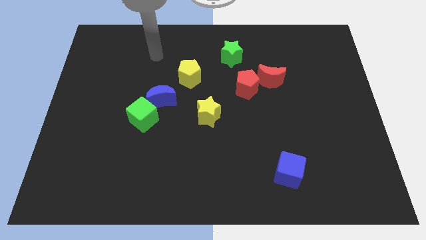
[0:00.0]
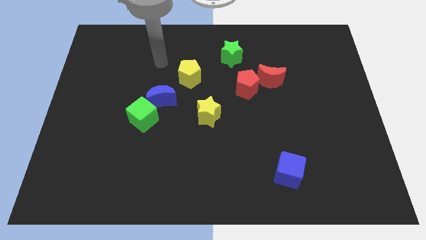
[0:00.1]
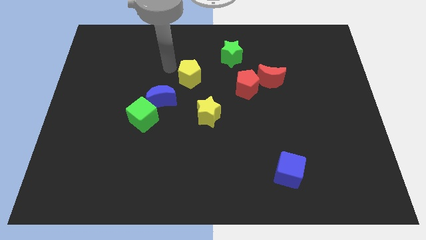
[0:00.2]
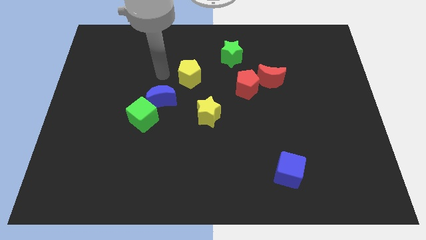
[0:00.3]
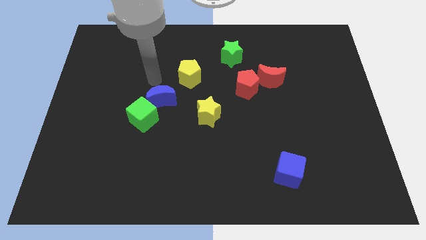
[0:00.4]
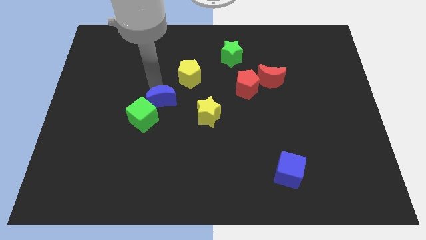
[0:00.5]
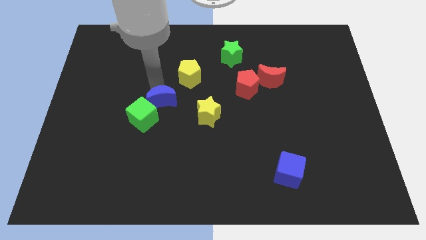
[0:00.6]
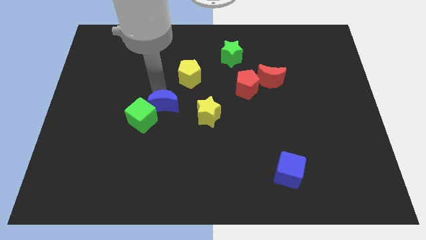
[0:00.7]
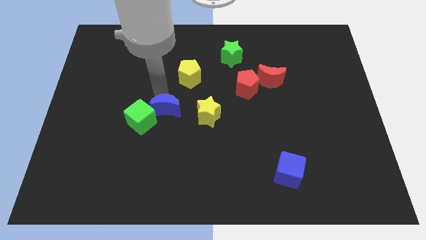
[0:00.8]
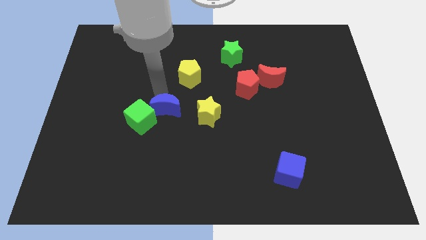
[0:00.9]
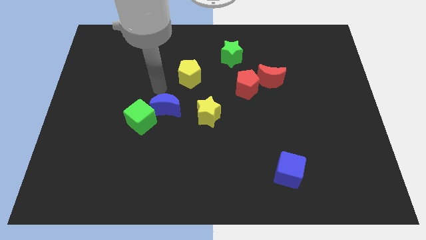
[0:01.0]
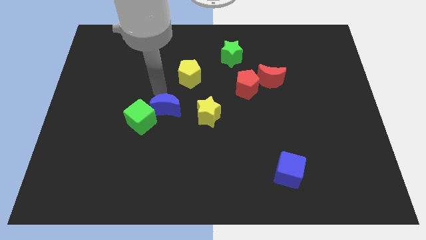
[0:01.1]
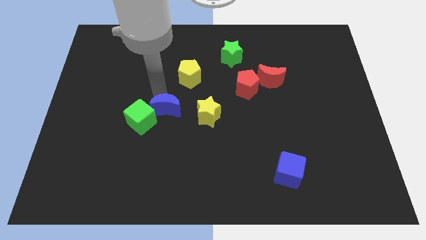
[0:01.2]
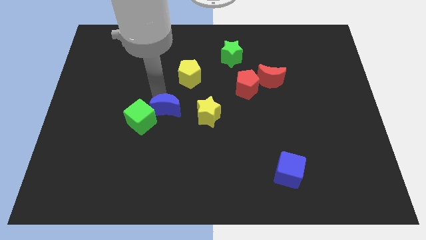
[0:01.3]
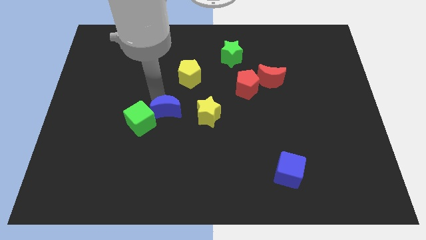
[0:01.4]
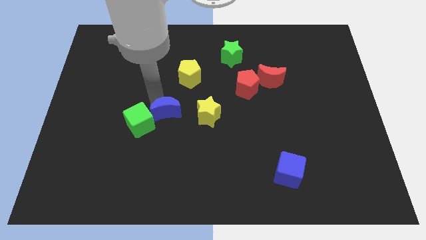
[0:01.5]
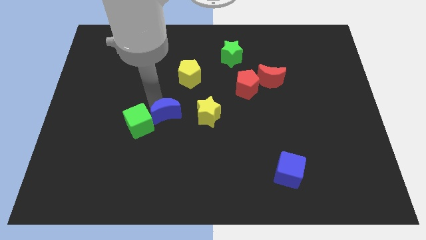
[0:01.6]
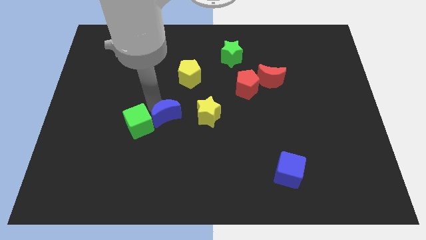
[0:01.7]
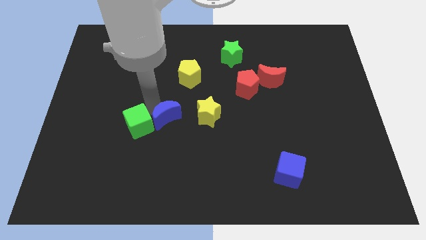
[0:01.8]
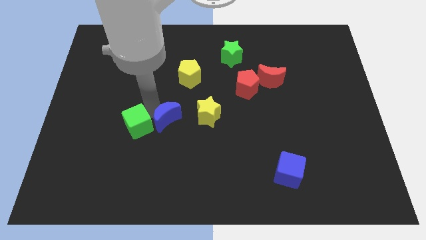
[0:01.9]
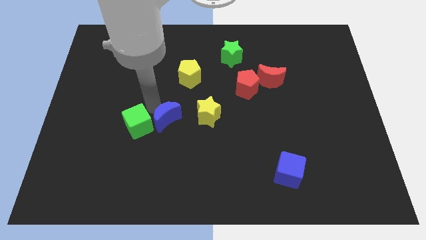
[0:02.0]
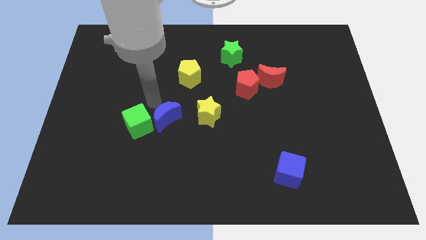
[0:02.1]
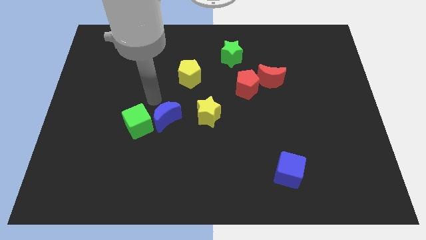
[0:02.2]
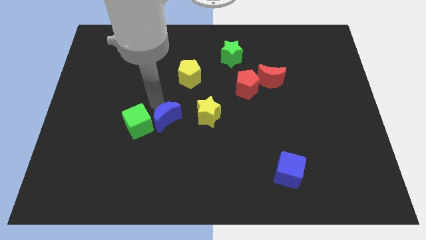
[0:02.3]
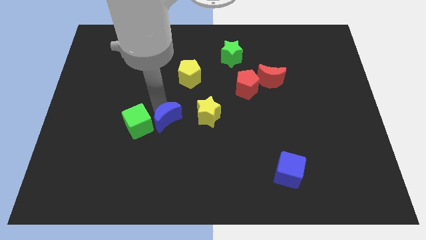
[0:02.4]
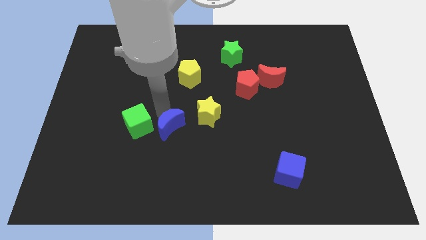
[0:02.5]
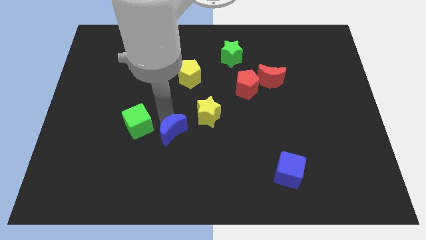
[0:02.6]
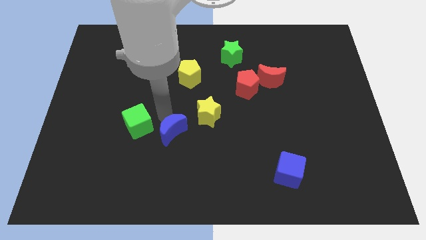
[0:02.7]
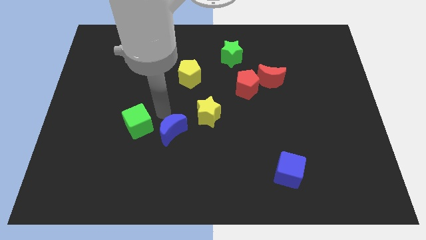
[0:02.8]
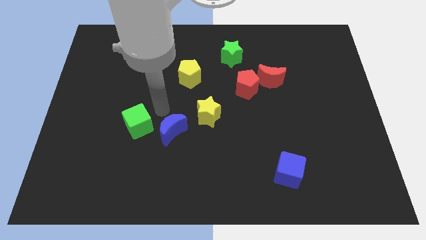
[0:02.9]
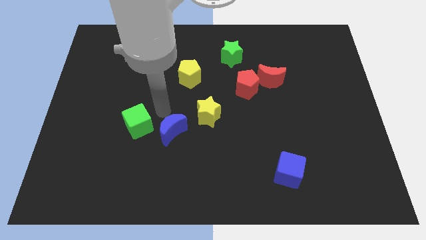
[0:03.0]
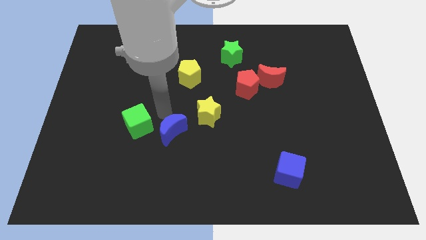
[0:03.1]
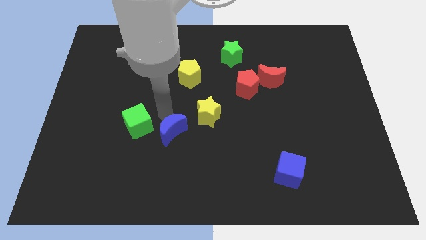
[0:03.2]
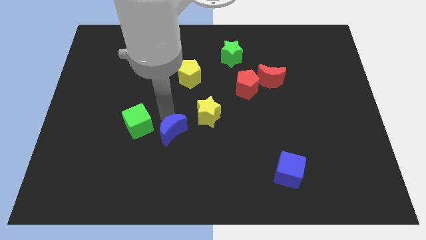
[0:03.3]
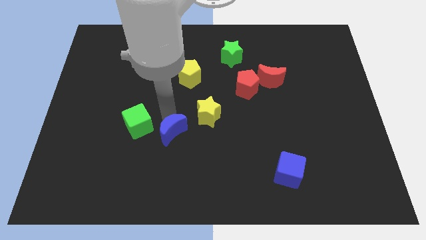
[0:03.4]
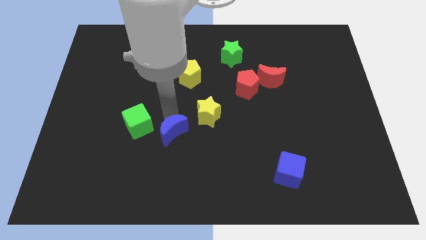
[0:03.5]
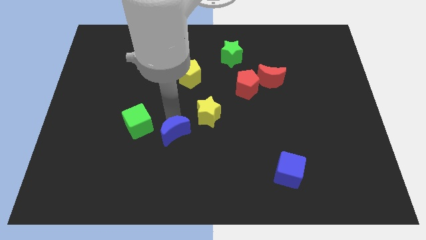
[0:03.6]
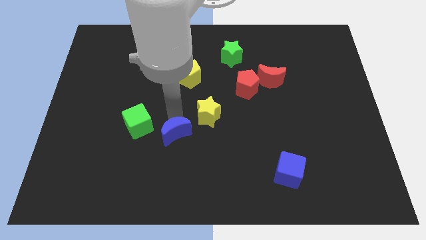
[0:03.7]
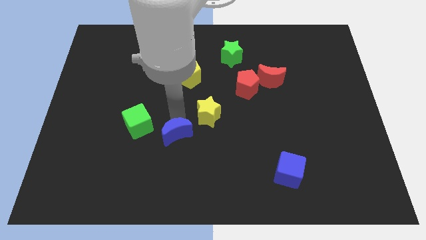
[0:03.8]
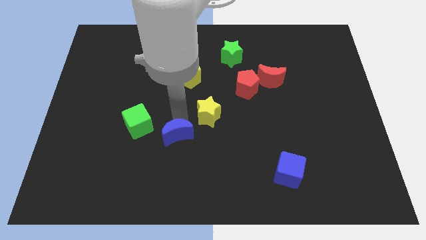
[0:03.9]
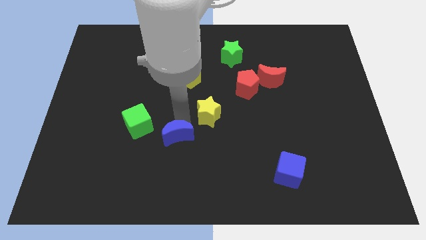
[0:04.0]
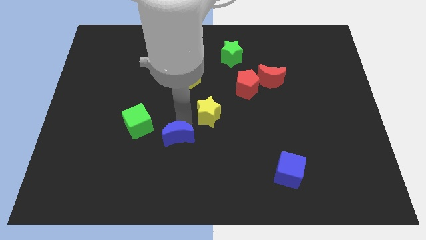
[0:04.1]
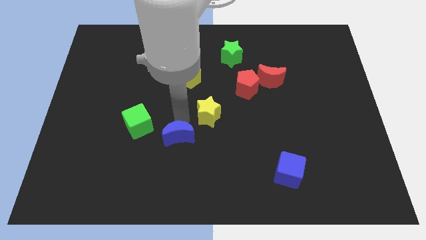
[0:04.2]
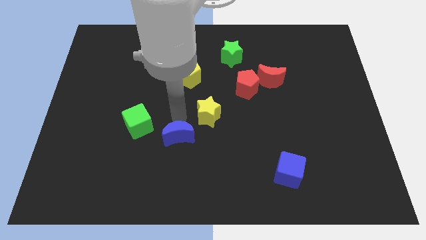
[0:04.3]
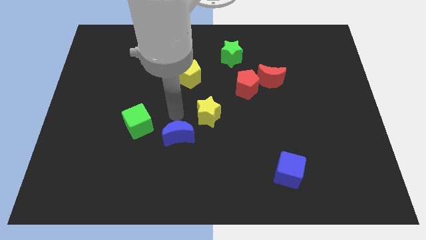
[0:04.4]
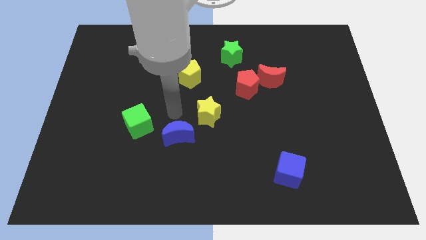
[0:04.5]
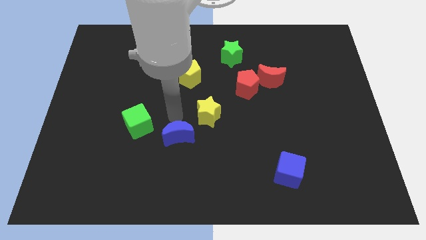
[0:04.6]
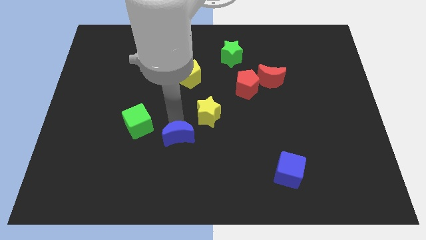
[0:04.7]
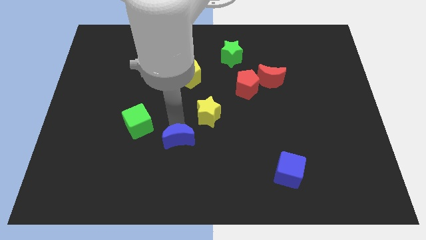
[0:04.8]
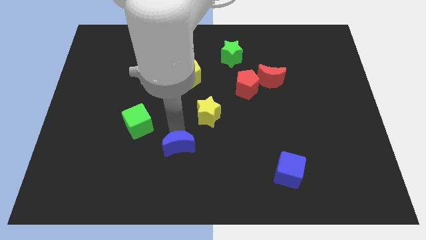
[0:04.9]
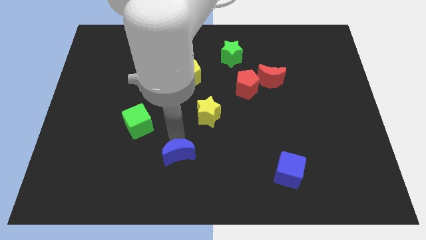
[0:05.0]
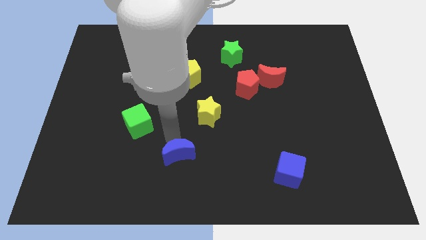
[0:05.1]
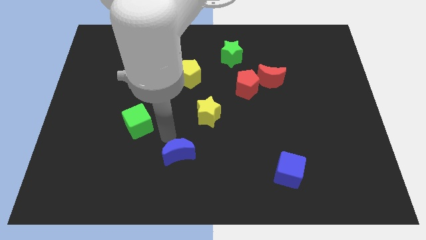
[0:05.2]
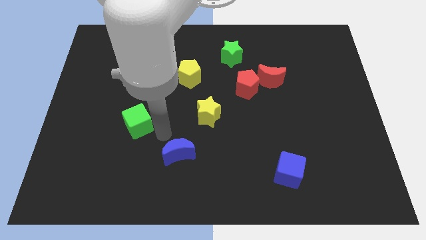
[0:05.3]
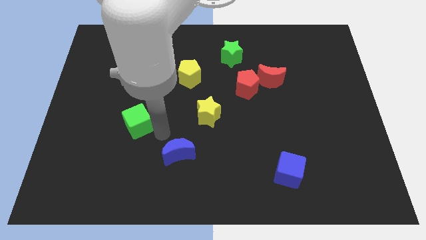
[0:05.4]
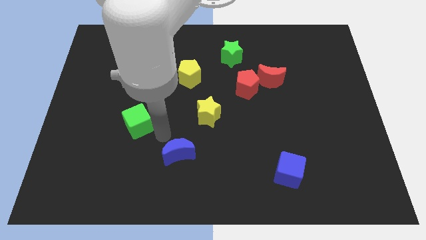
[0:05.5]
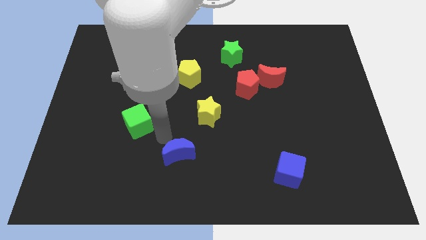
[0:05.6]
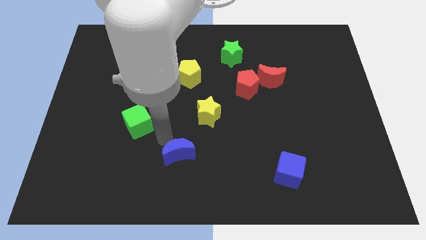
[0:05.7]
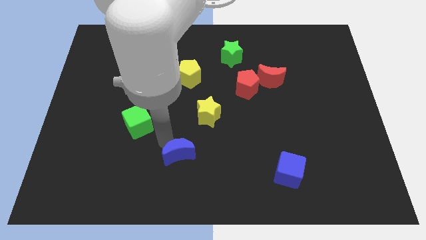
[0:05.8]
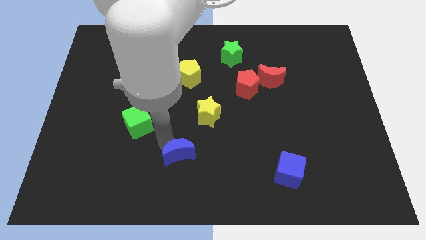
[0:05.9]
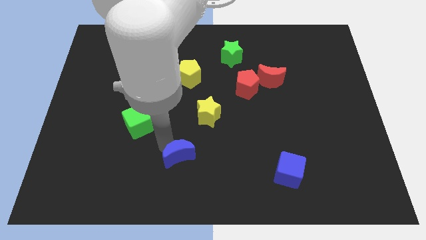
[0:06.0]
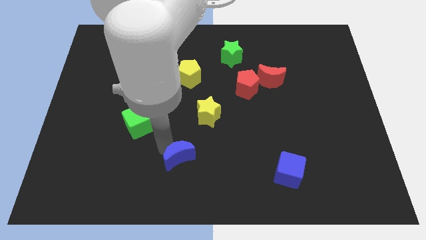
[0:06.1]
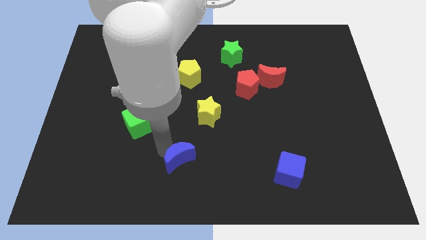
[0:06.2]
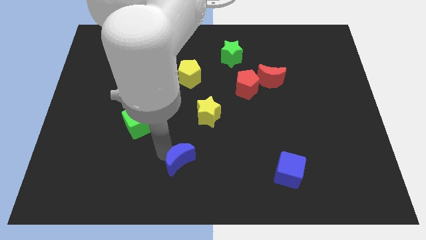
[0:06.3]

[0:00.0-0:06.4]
put the blue moon to the bottom side
